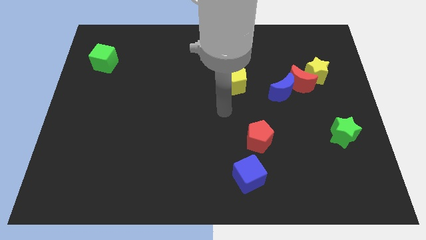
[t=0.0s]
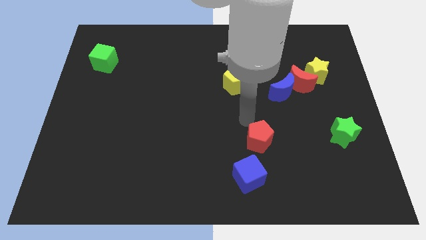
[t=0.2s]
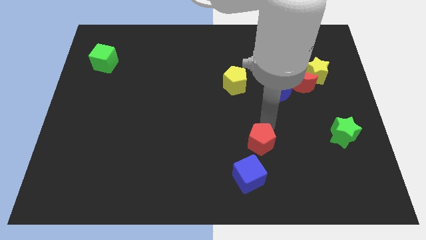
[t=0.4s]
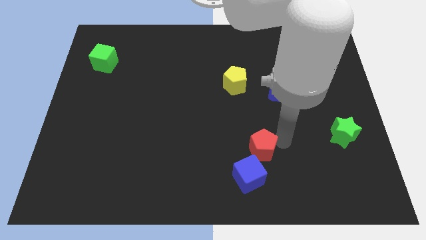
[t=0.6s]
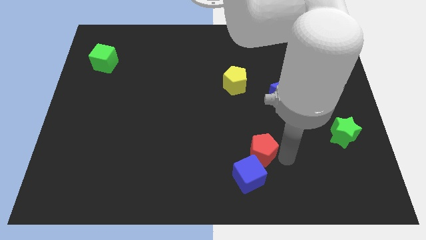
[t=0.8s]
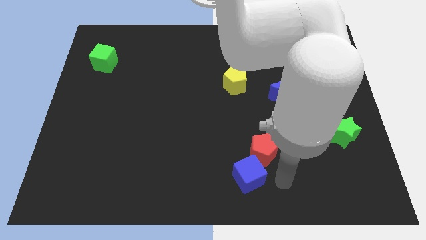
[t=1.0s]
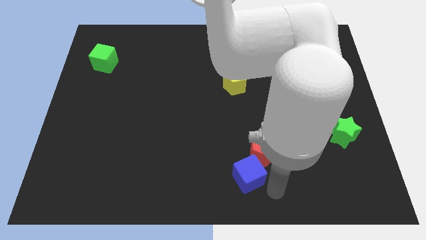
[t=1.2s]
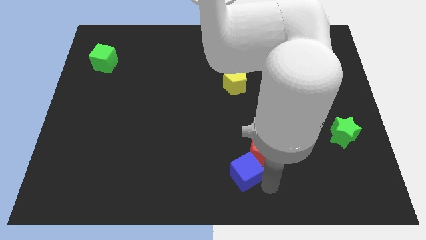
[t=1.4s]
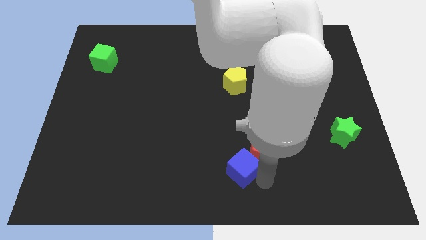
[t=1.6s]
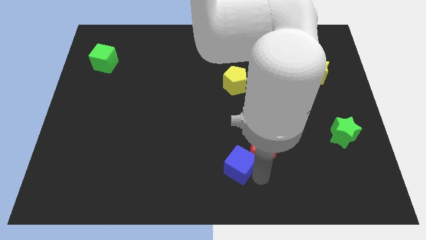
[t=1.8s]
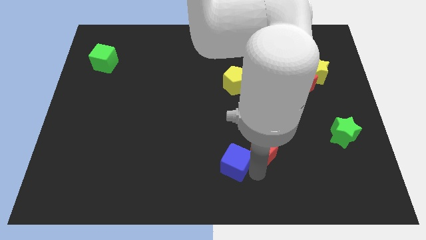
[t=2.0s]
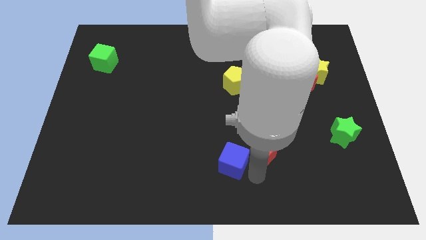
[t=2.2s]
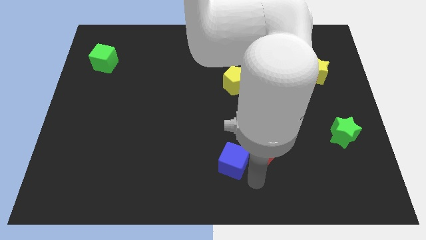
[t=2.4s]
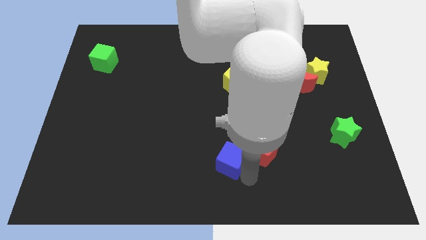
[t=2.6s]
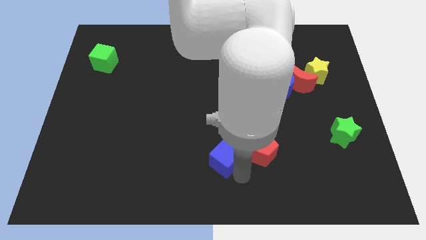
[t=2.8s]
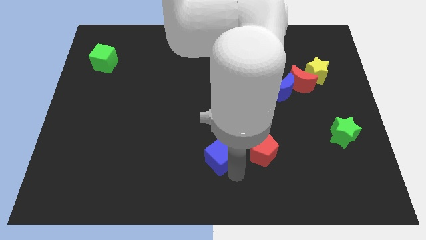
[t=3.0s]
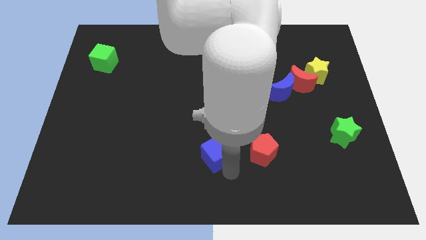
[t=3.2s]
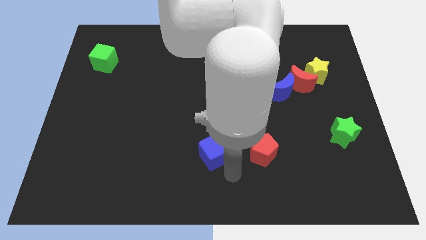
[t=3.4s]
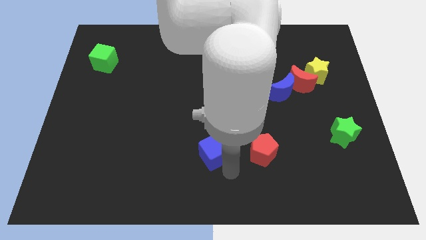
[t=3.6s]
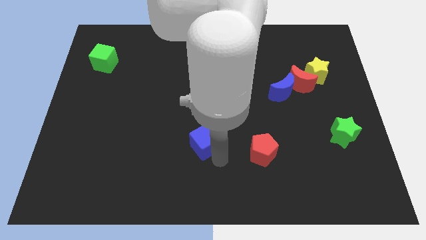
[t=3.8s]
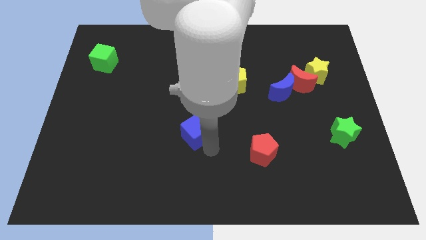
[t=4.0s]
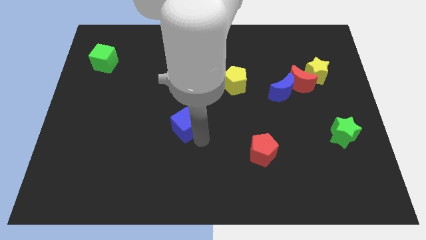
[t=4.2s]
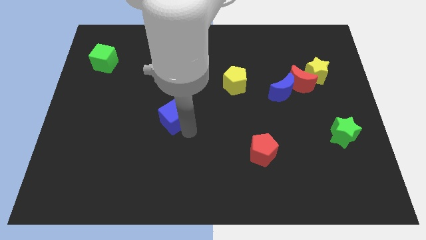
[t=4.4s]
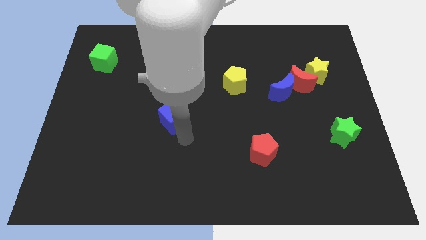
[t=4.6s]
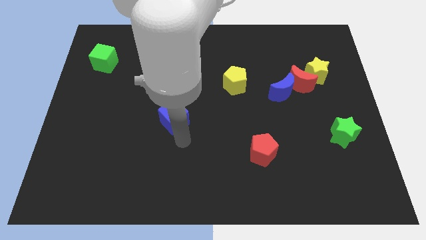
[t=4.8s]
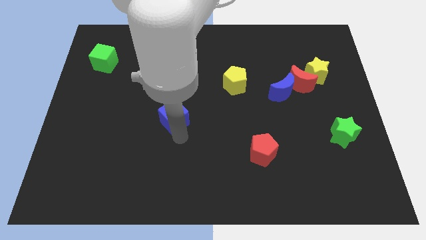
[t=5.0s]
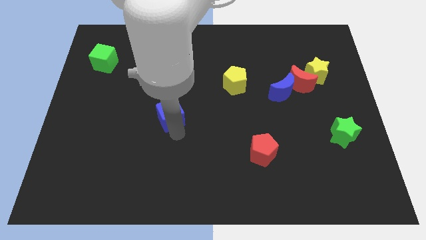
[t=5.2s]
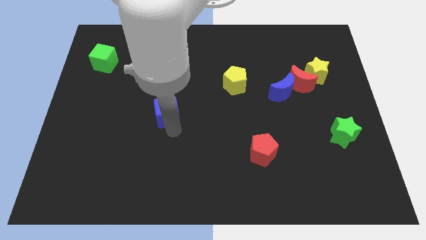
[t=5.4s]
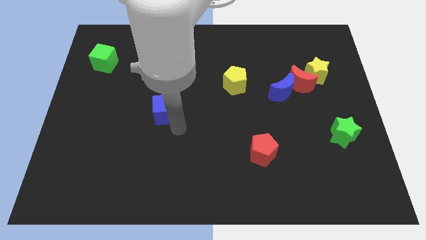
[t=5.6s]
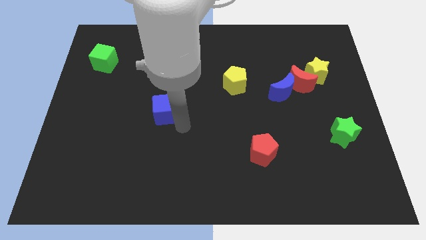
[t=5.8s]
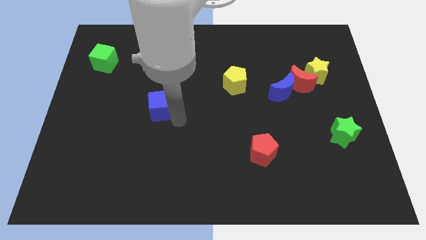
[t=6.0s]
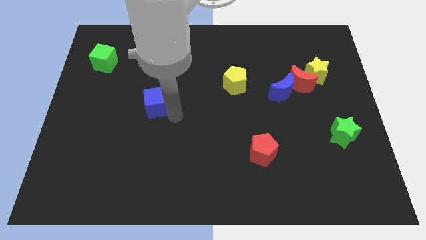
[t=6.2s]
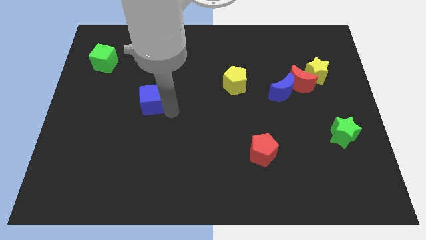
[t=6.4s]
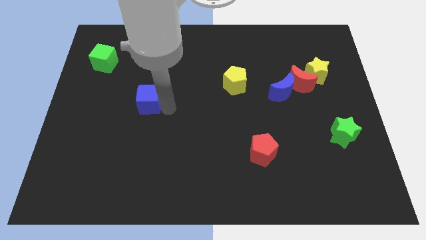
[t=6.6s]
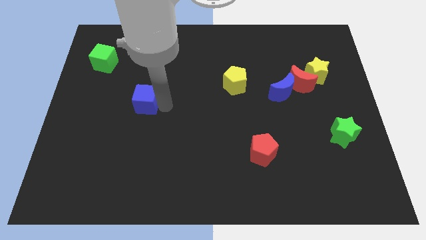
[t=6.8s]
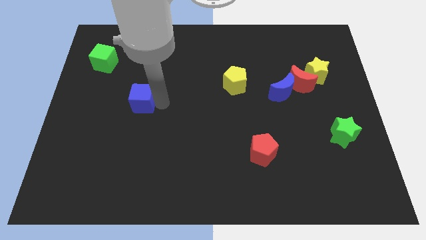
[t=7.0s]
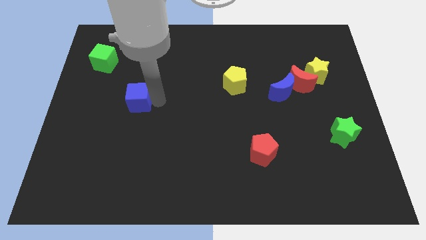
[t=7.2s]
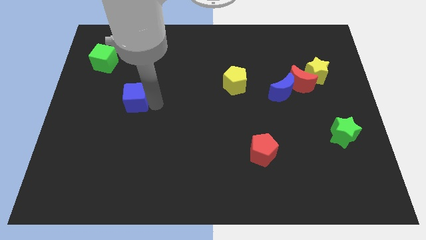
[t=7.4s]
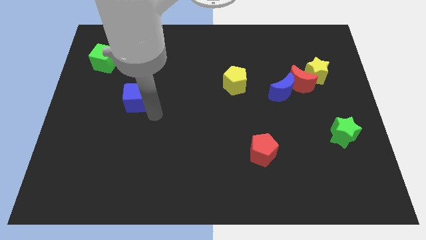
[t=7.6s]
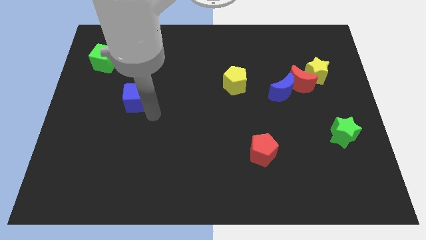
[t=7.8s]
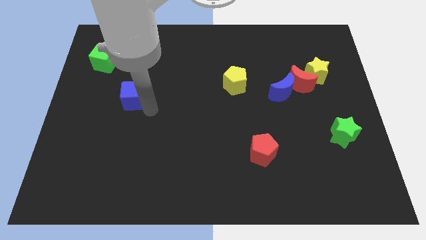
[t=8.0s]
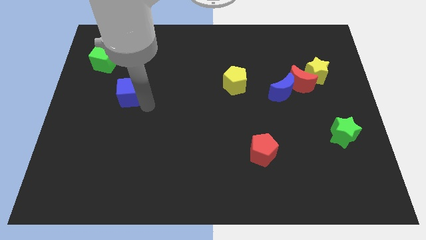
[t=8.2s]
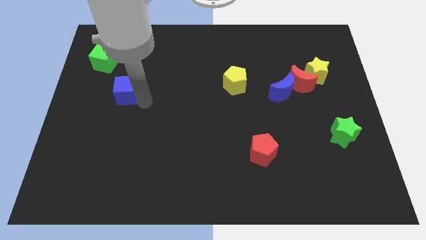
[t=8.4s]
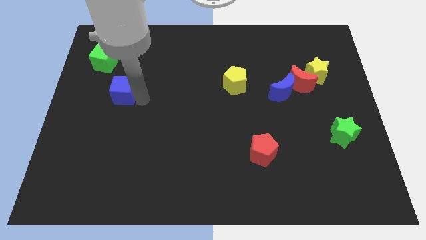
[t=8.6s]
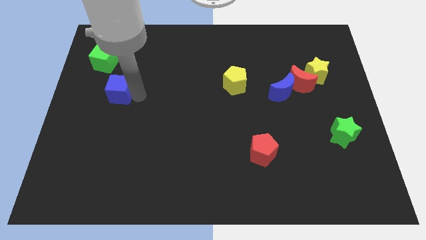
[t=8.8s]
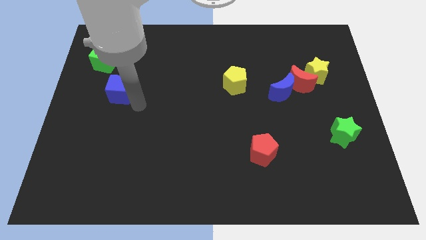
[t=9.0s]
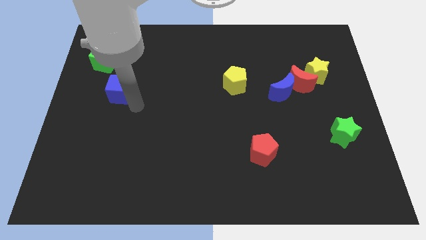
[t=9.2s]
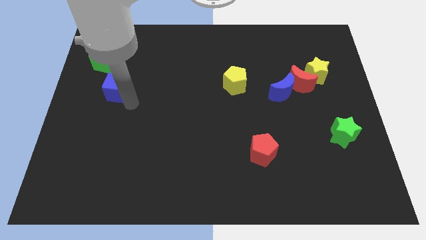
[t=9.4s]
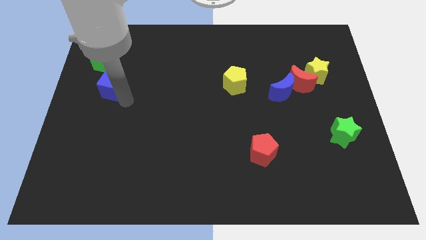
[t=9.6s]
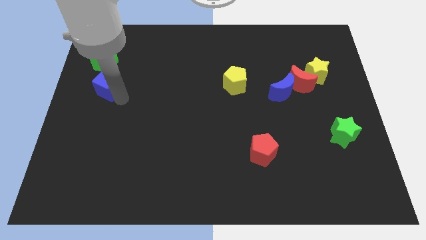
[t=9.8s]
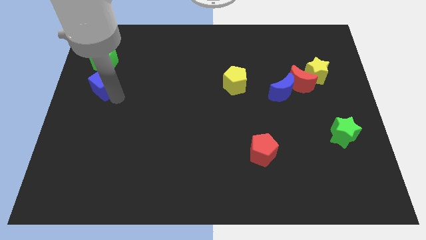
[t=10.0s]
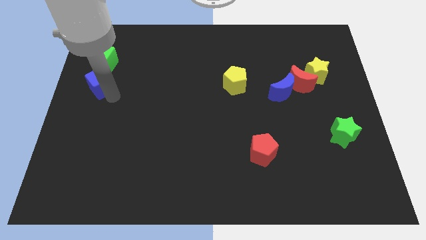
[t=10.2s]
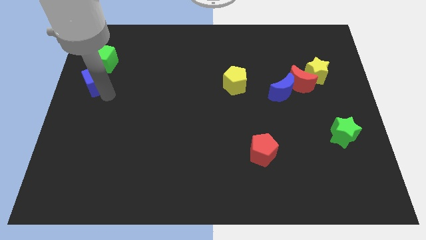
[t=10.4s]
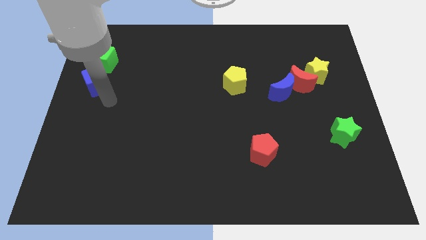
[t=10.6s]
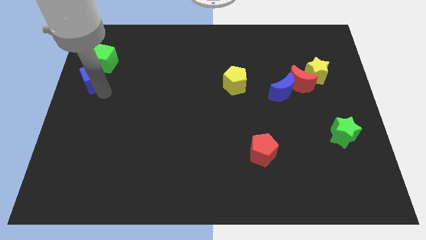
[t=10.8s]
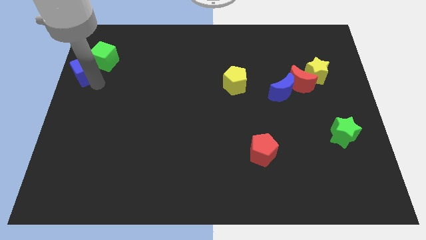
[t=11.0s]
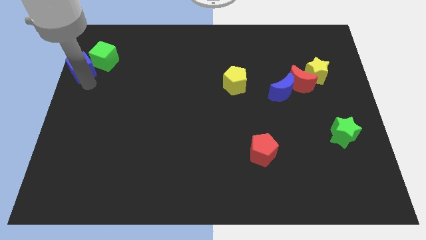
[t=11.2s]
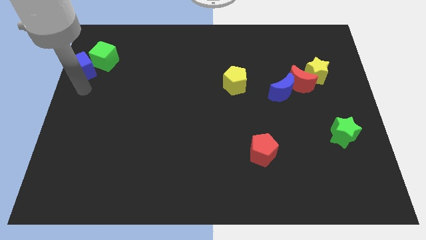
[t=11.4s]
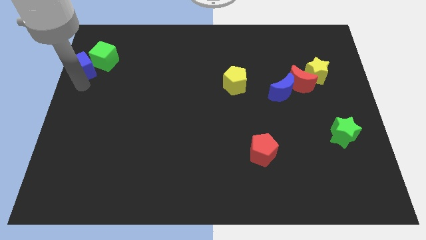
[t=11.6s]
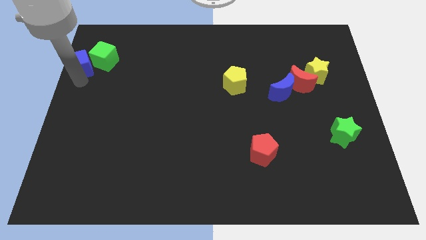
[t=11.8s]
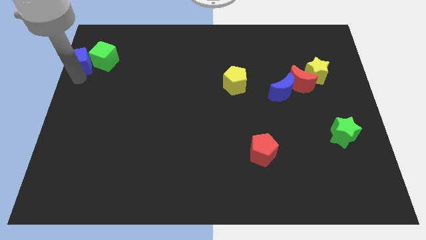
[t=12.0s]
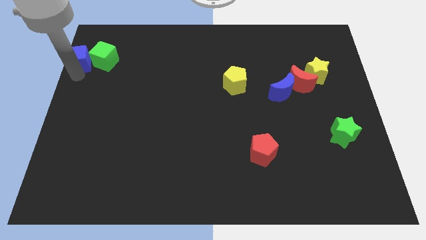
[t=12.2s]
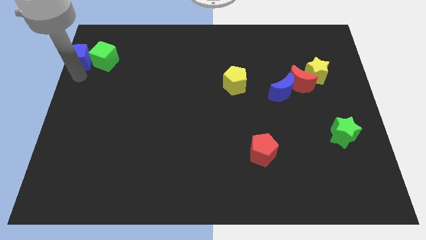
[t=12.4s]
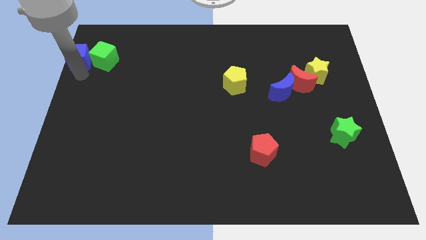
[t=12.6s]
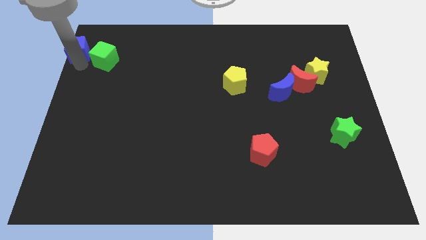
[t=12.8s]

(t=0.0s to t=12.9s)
push the blue cube to the top left corner

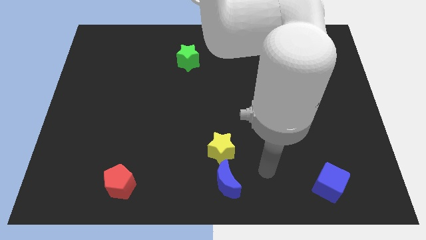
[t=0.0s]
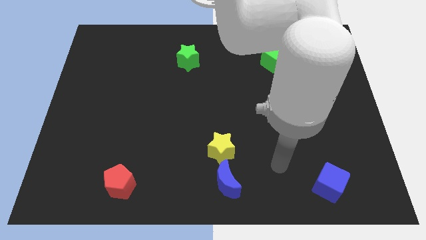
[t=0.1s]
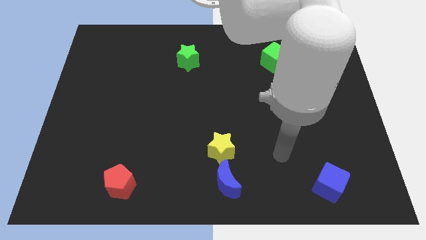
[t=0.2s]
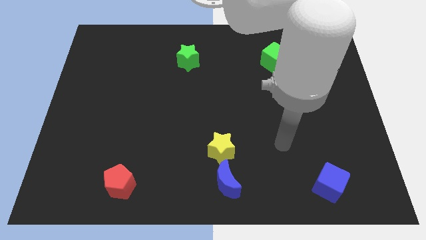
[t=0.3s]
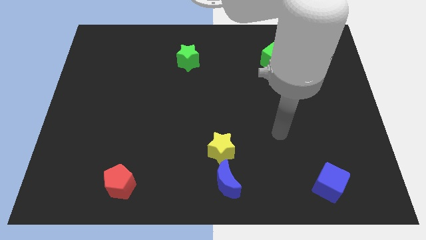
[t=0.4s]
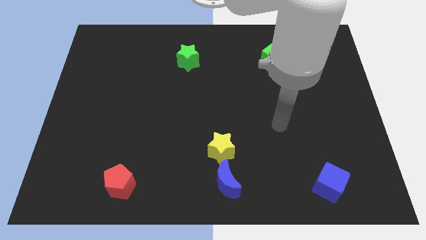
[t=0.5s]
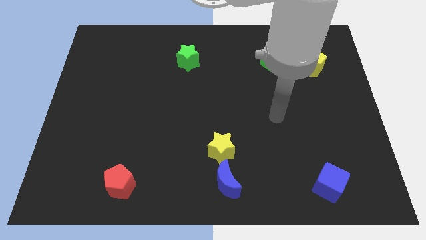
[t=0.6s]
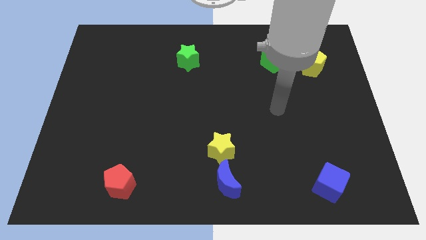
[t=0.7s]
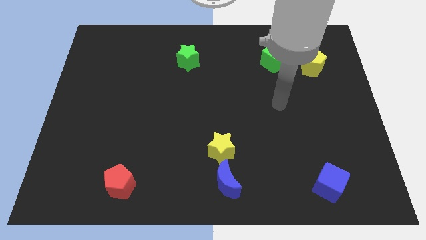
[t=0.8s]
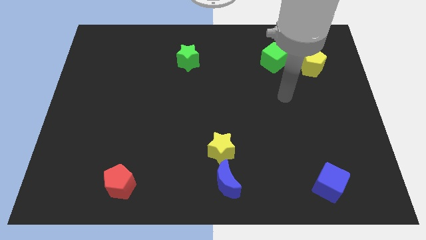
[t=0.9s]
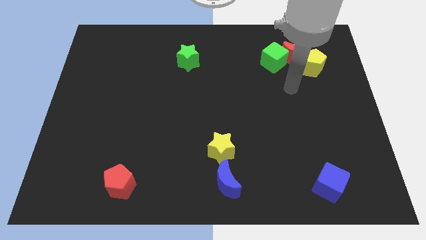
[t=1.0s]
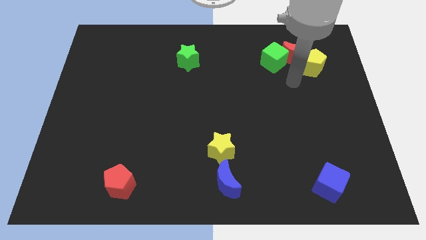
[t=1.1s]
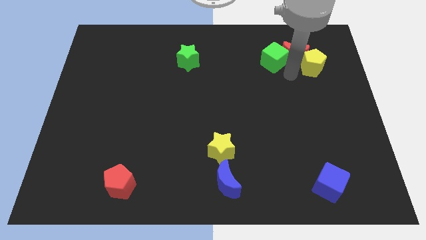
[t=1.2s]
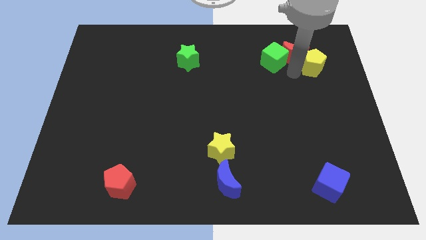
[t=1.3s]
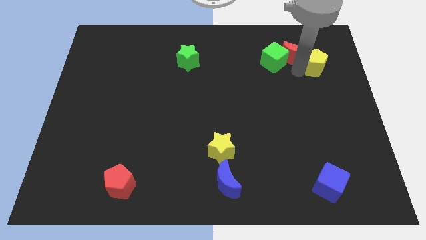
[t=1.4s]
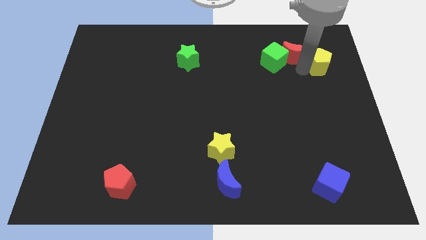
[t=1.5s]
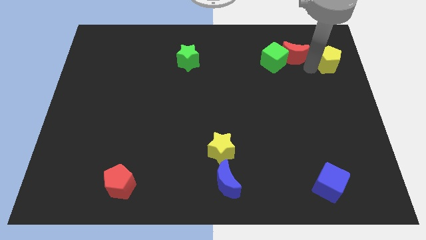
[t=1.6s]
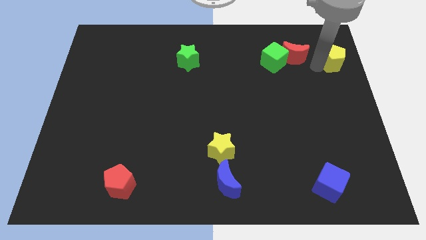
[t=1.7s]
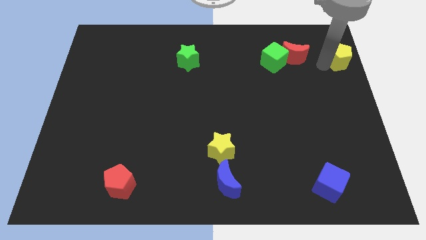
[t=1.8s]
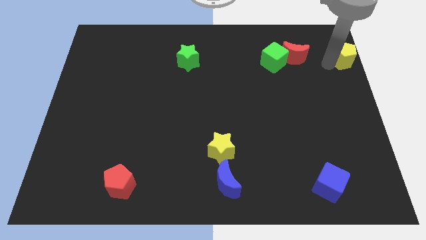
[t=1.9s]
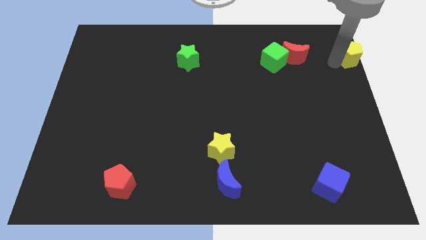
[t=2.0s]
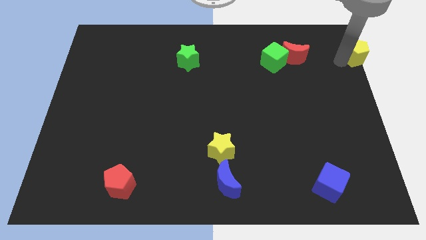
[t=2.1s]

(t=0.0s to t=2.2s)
put the yellow pentagon to the top right of the board
